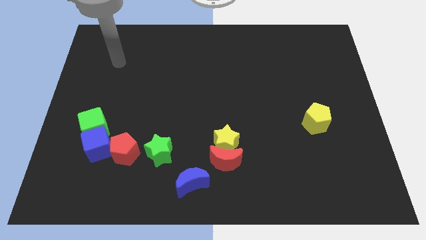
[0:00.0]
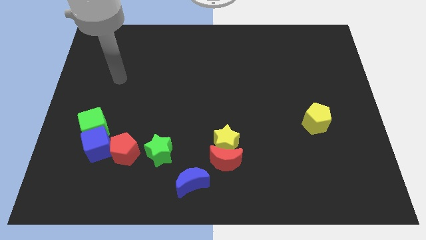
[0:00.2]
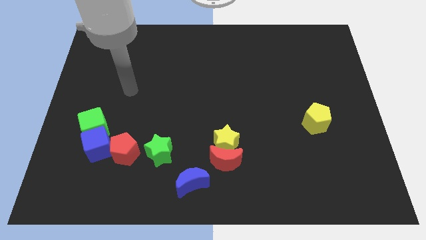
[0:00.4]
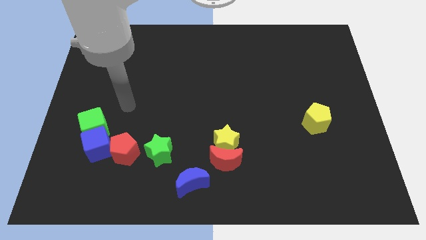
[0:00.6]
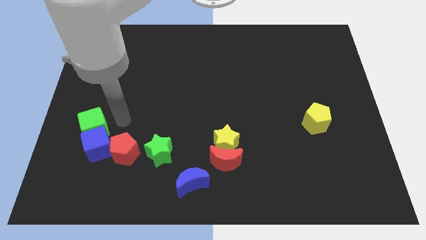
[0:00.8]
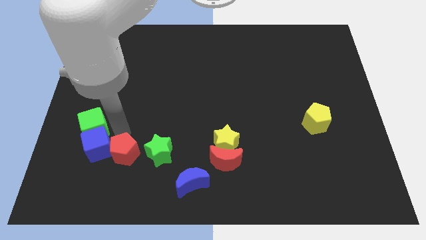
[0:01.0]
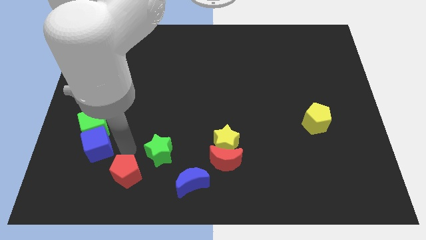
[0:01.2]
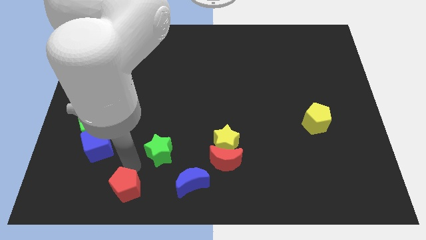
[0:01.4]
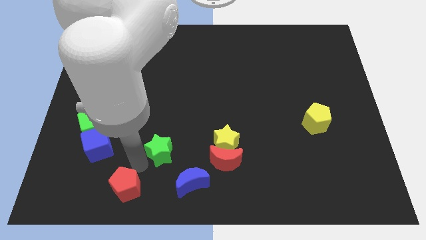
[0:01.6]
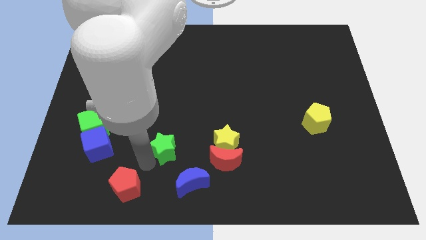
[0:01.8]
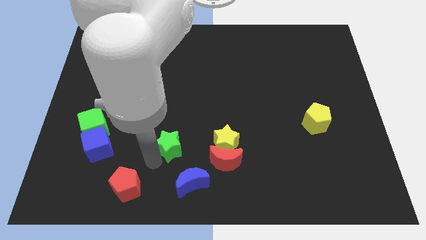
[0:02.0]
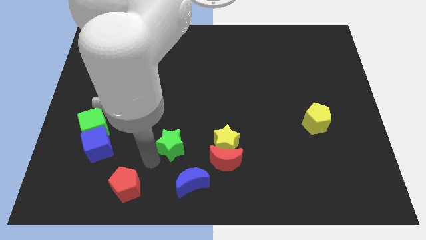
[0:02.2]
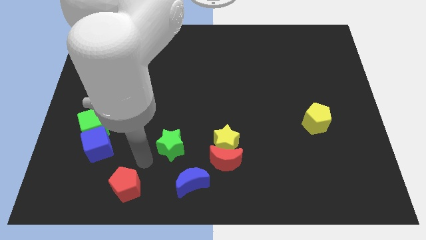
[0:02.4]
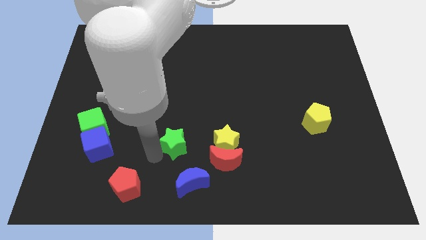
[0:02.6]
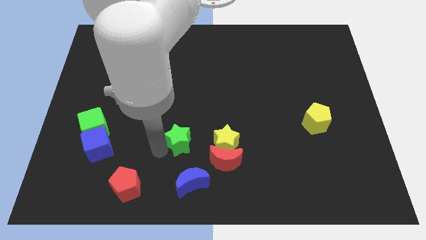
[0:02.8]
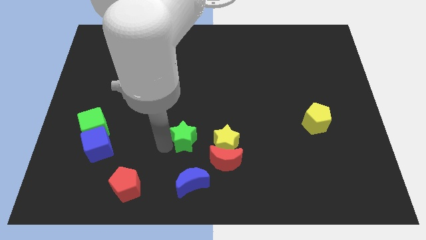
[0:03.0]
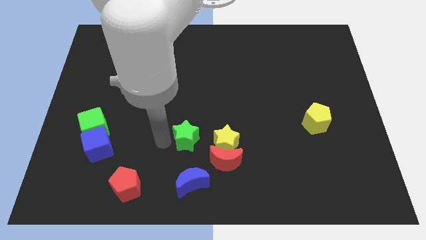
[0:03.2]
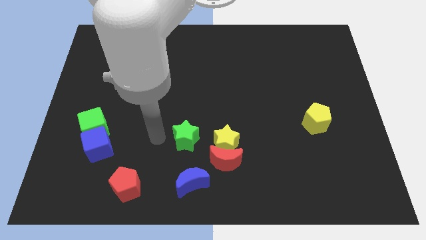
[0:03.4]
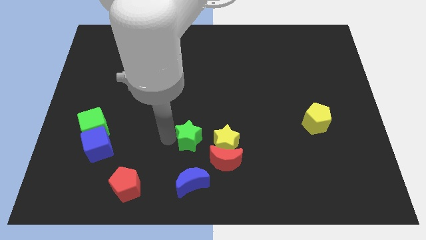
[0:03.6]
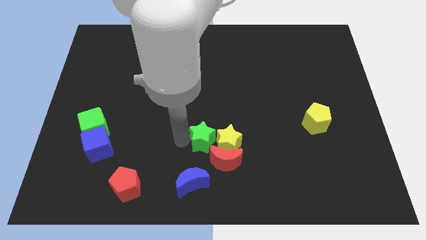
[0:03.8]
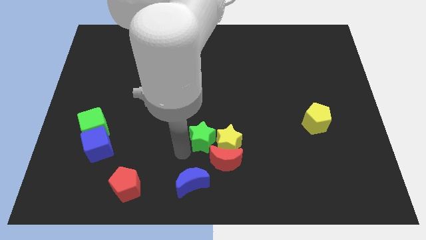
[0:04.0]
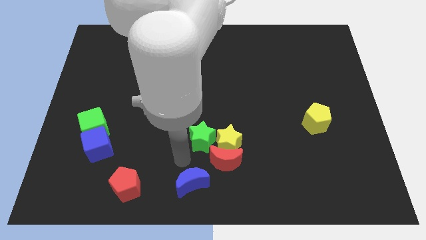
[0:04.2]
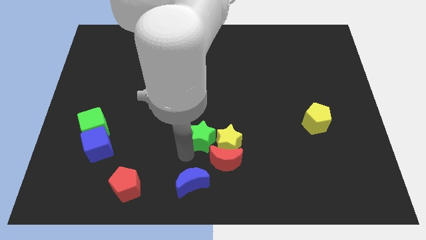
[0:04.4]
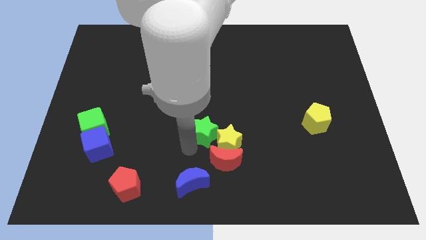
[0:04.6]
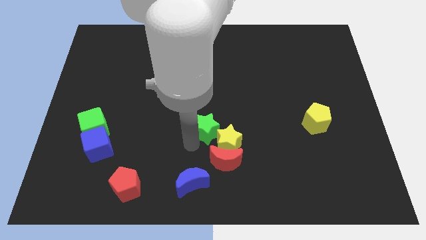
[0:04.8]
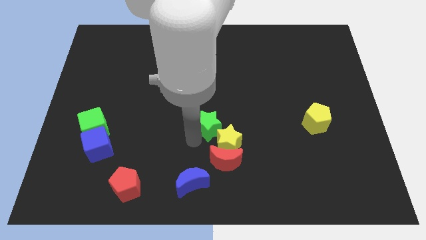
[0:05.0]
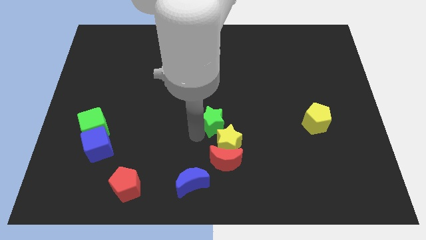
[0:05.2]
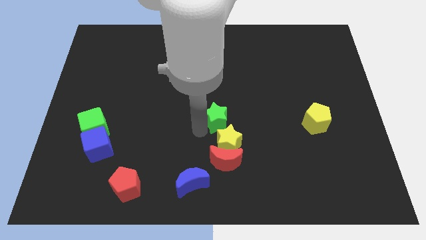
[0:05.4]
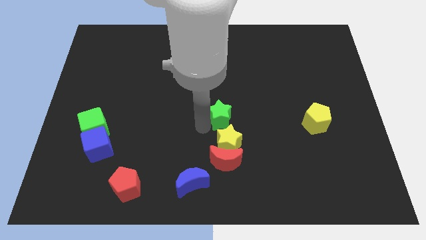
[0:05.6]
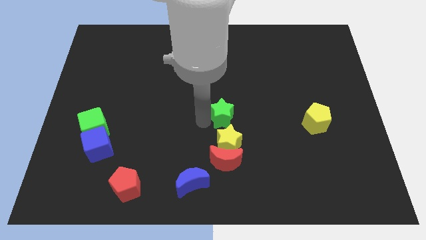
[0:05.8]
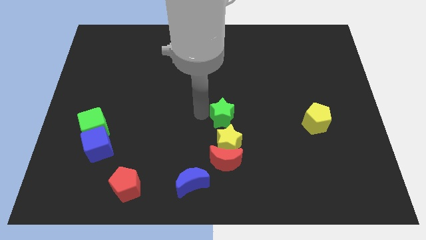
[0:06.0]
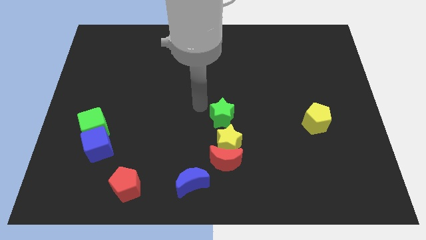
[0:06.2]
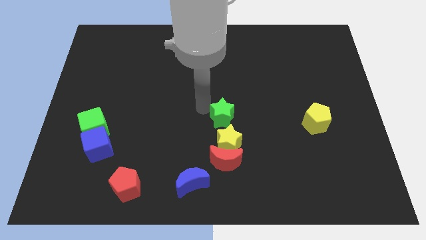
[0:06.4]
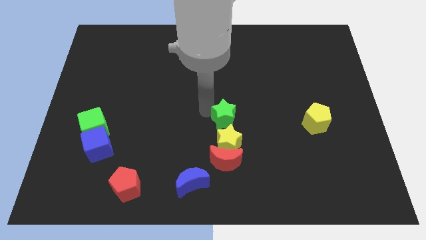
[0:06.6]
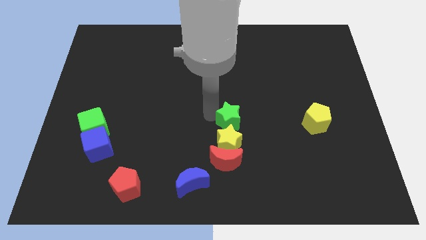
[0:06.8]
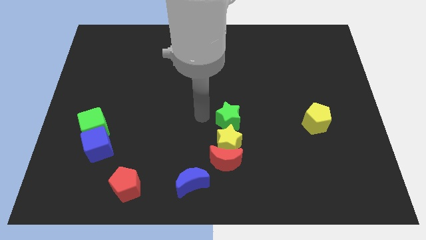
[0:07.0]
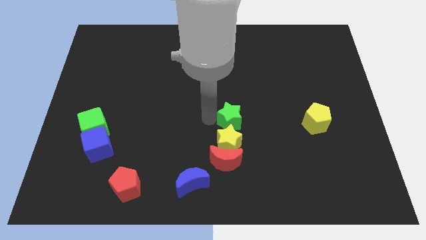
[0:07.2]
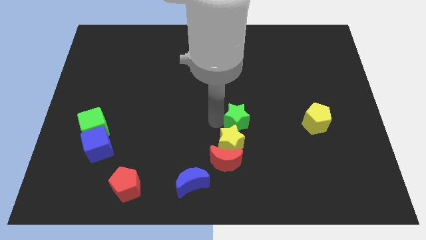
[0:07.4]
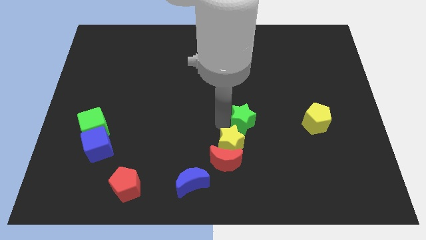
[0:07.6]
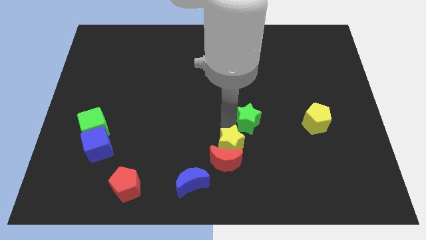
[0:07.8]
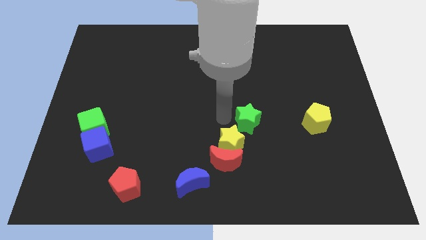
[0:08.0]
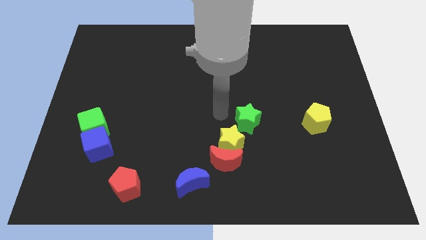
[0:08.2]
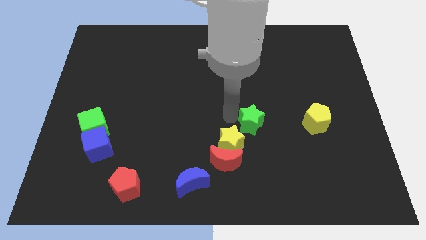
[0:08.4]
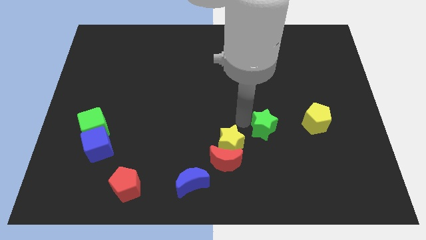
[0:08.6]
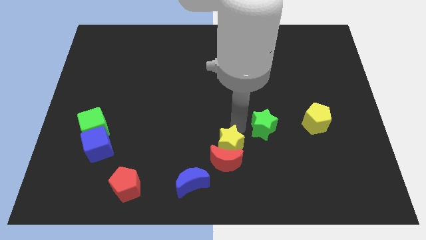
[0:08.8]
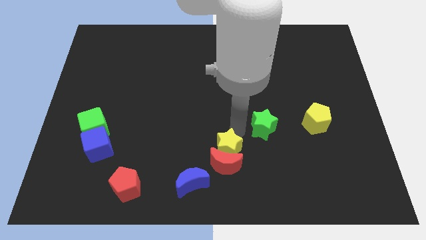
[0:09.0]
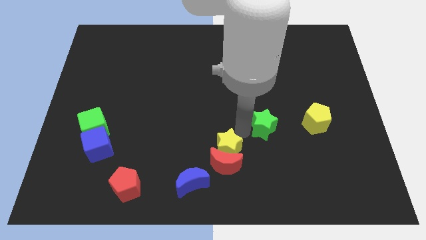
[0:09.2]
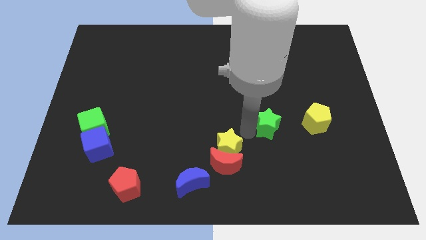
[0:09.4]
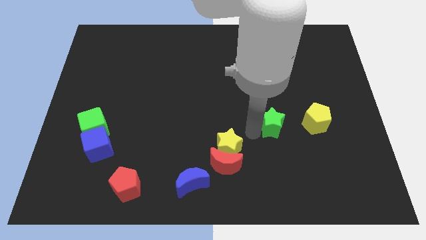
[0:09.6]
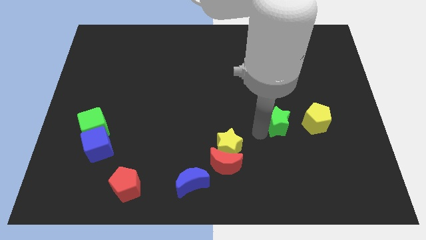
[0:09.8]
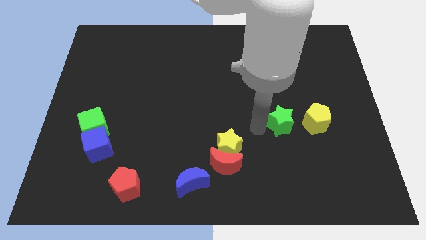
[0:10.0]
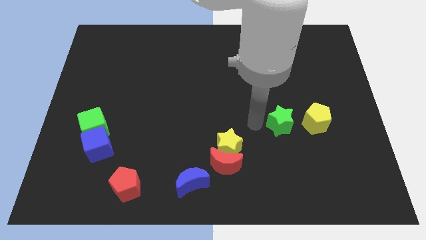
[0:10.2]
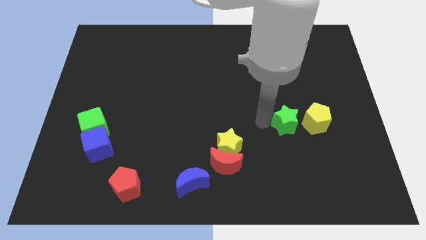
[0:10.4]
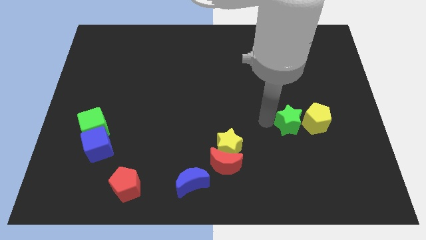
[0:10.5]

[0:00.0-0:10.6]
push the green star close to the yellow pentagon

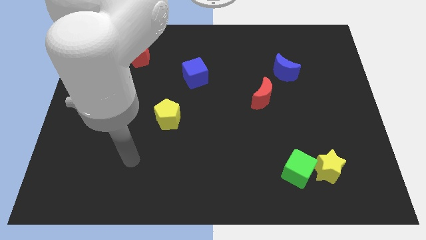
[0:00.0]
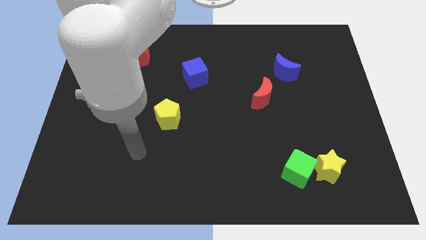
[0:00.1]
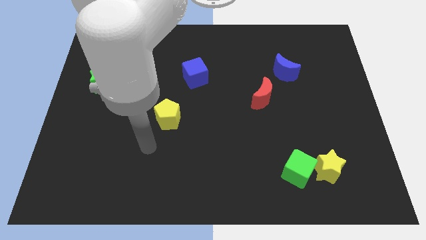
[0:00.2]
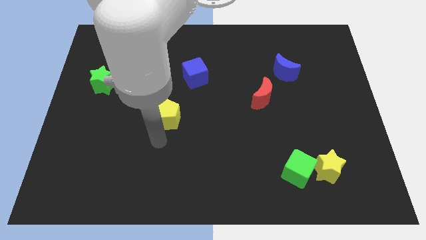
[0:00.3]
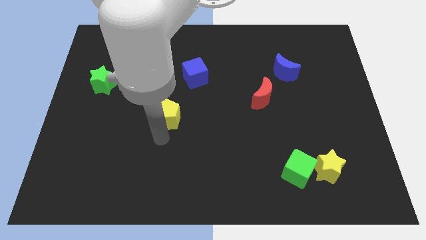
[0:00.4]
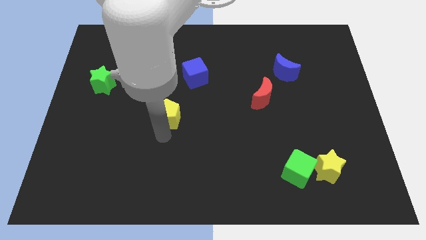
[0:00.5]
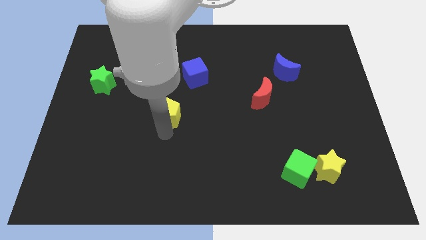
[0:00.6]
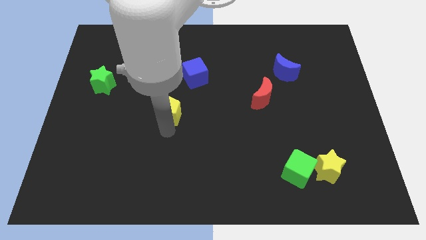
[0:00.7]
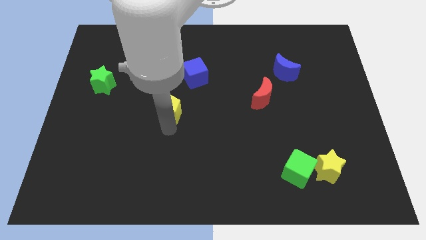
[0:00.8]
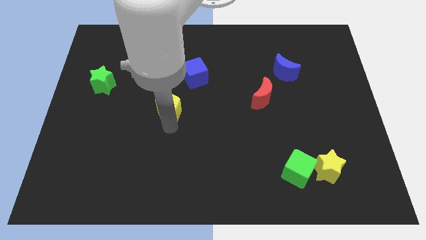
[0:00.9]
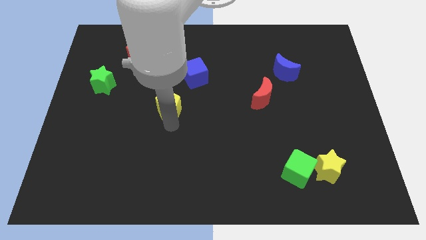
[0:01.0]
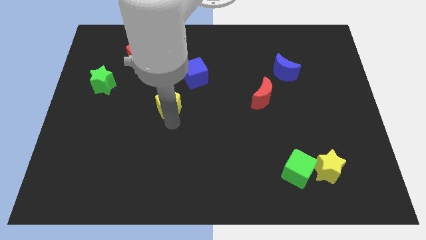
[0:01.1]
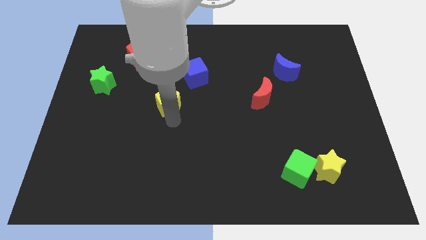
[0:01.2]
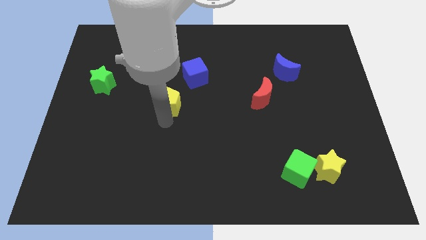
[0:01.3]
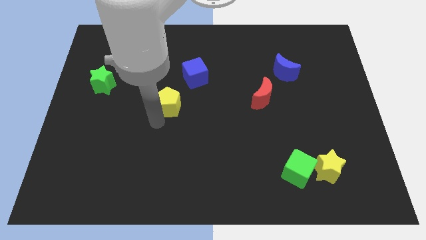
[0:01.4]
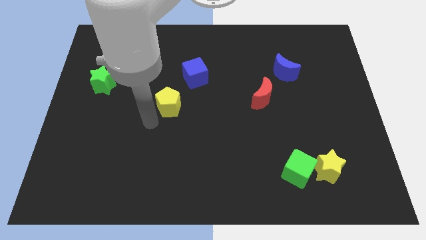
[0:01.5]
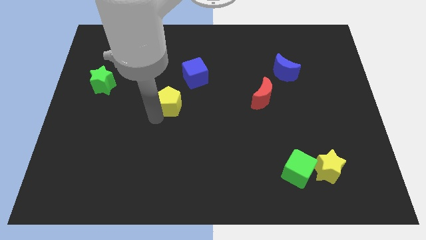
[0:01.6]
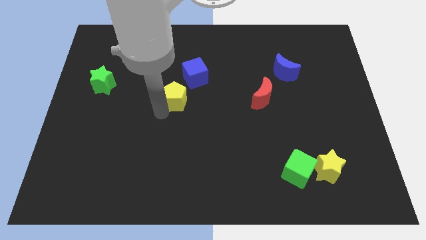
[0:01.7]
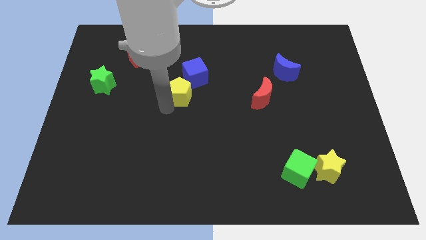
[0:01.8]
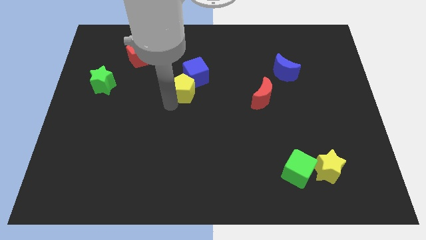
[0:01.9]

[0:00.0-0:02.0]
slide the yellow pentagon to the blue cube
